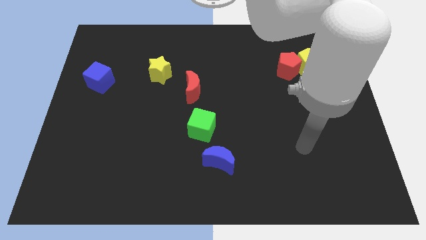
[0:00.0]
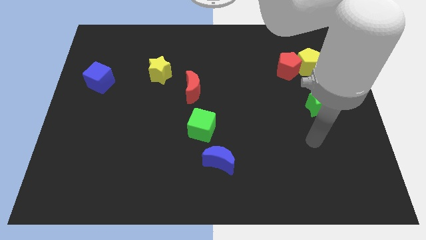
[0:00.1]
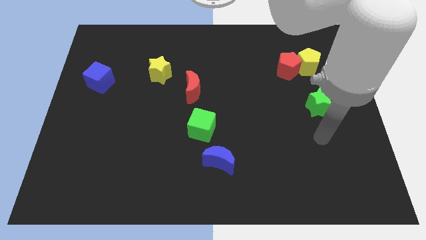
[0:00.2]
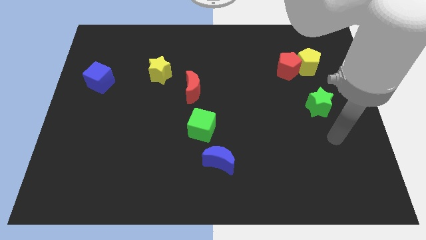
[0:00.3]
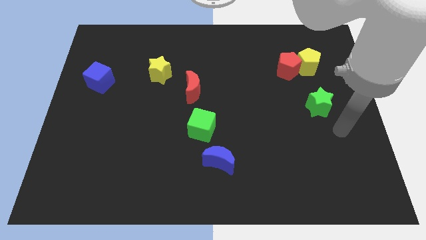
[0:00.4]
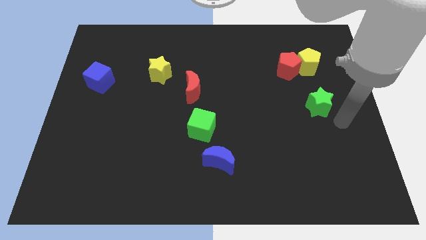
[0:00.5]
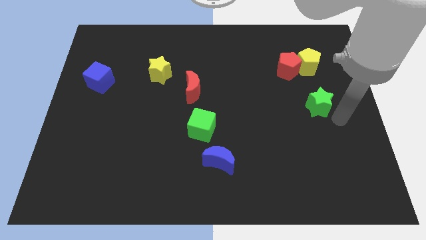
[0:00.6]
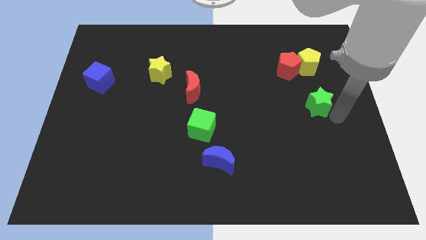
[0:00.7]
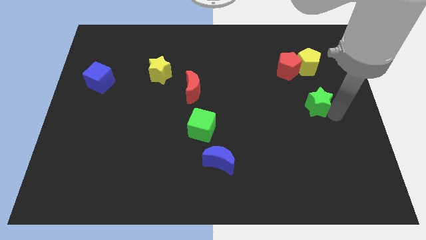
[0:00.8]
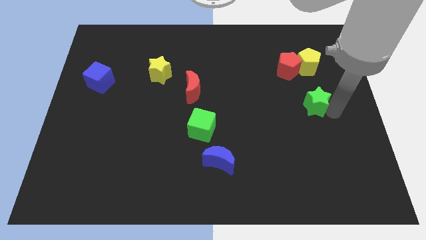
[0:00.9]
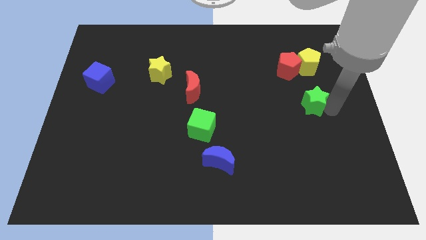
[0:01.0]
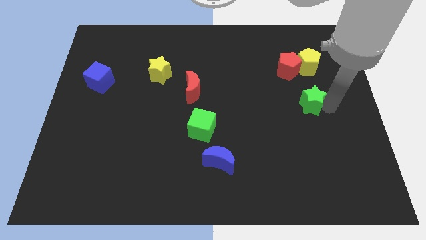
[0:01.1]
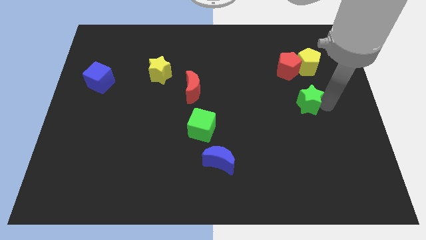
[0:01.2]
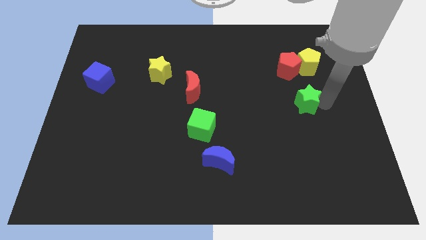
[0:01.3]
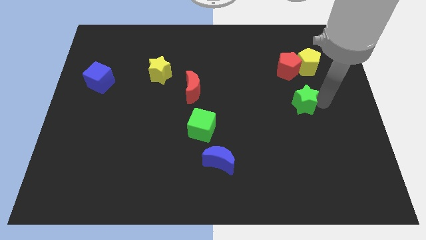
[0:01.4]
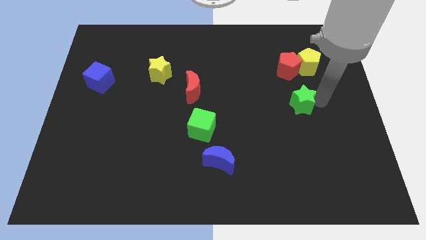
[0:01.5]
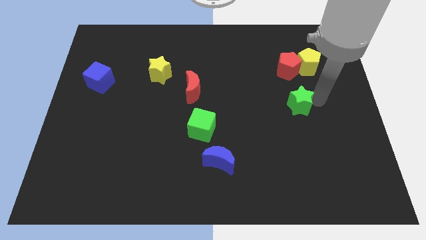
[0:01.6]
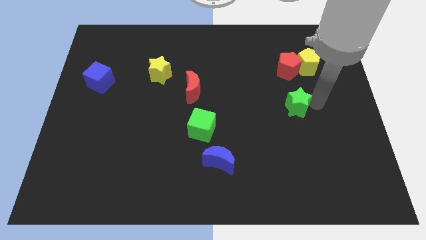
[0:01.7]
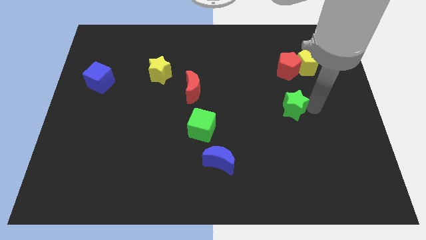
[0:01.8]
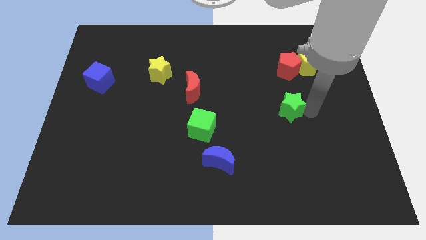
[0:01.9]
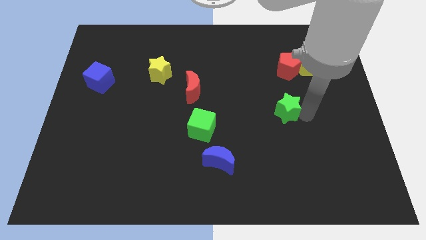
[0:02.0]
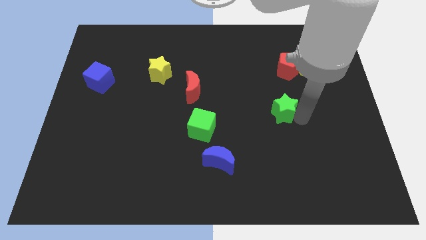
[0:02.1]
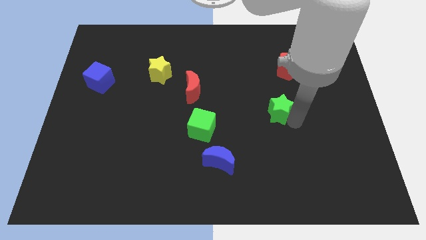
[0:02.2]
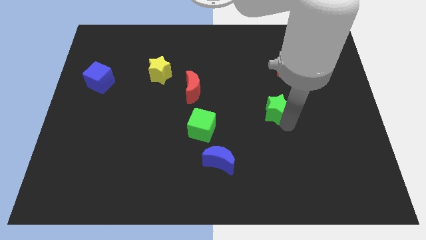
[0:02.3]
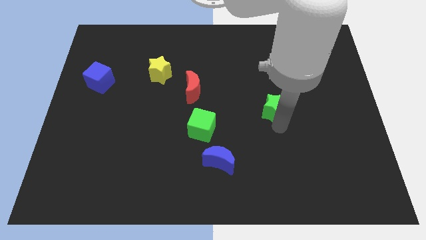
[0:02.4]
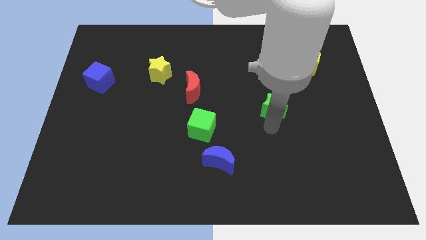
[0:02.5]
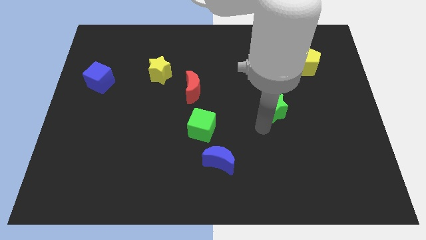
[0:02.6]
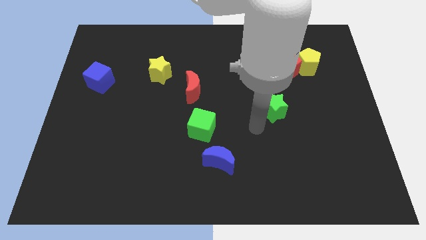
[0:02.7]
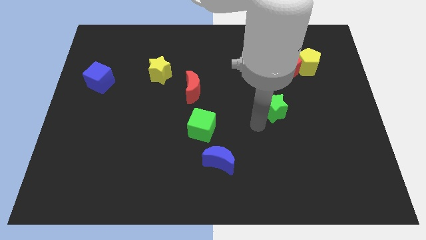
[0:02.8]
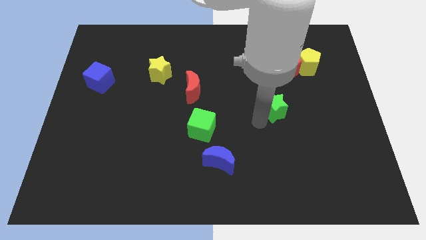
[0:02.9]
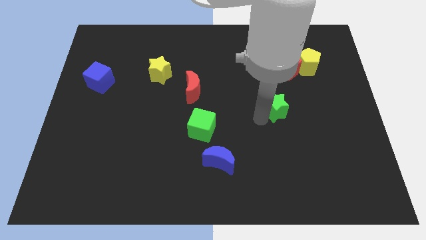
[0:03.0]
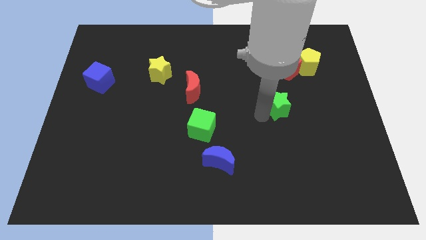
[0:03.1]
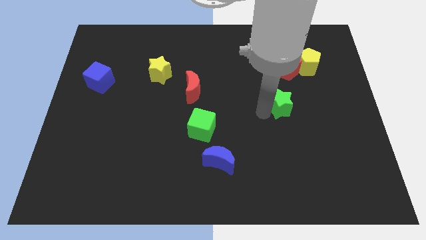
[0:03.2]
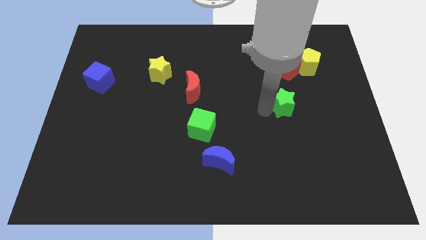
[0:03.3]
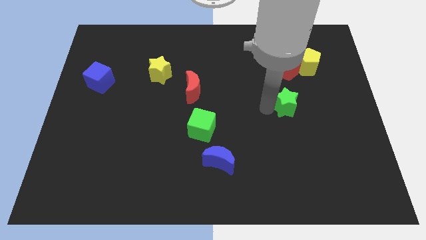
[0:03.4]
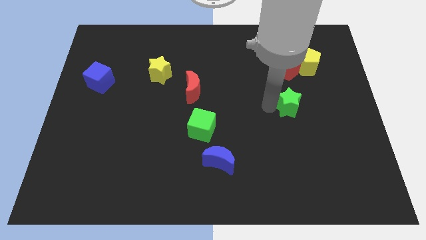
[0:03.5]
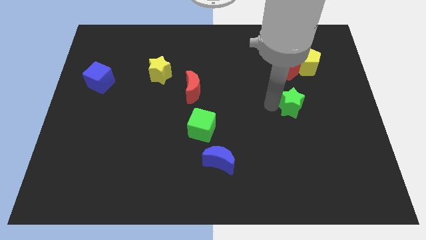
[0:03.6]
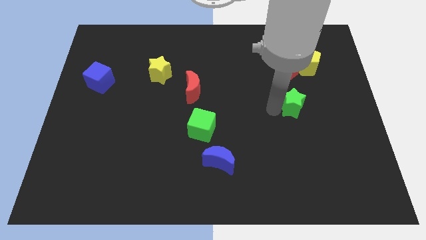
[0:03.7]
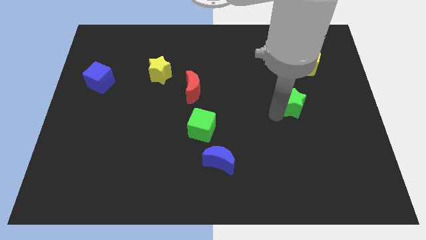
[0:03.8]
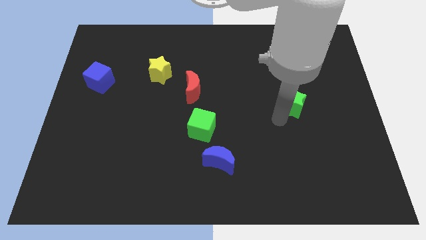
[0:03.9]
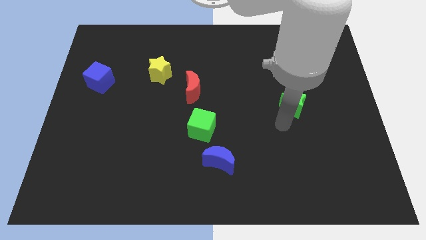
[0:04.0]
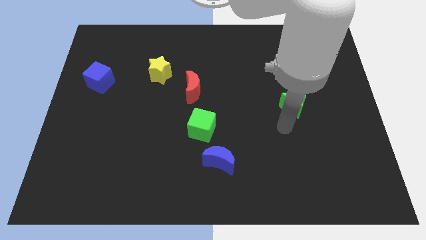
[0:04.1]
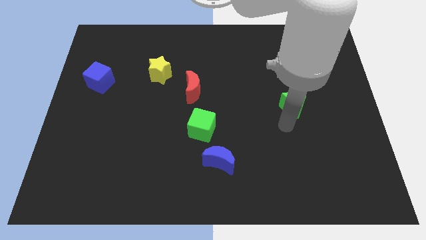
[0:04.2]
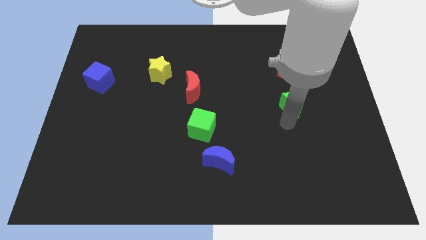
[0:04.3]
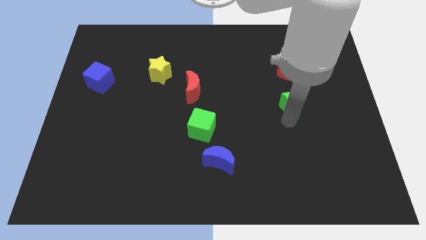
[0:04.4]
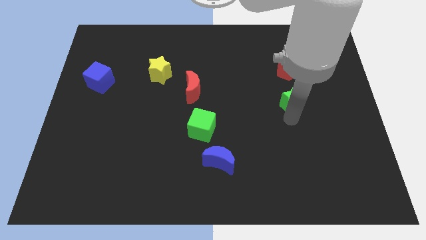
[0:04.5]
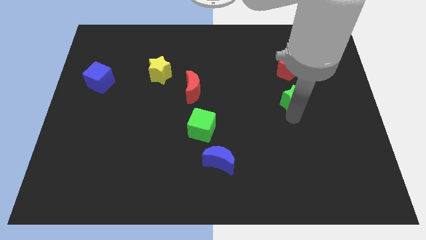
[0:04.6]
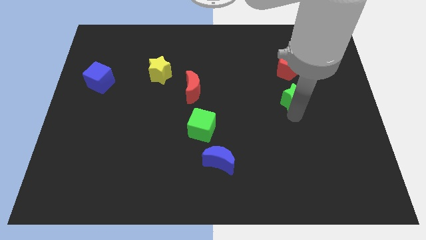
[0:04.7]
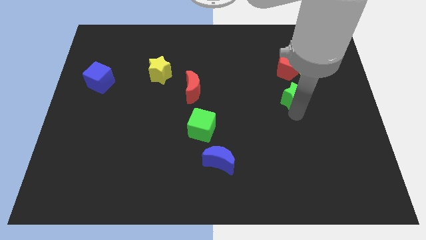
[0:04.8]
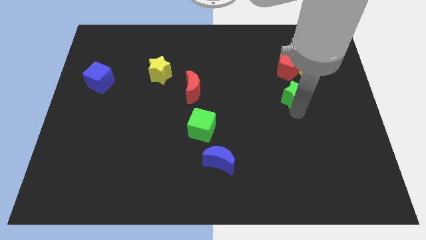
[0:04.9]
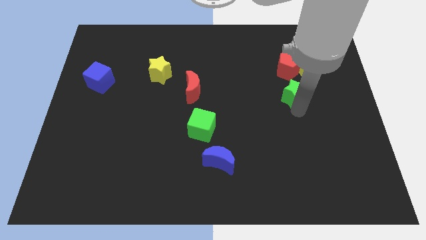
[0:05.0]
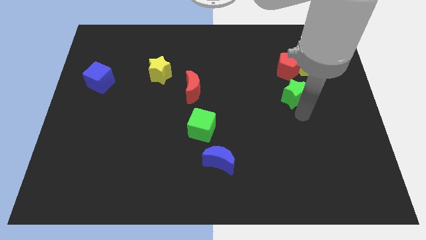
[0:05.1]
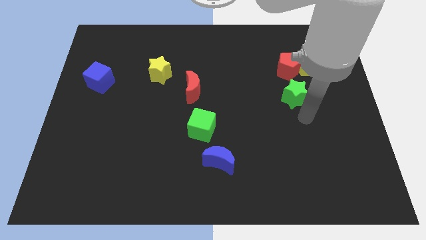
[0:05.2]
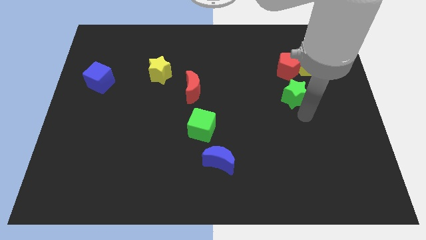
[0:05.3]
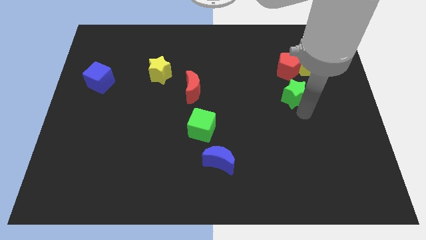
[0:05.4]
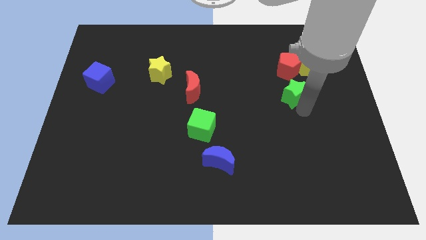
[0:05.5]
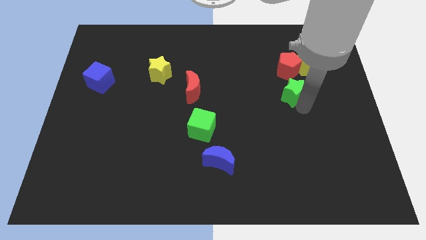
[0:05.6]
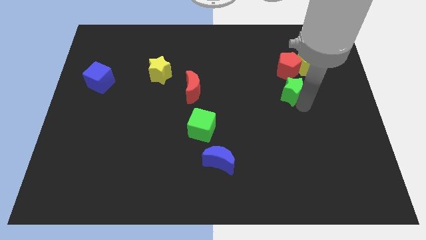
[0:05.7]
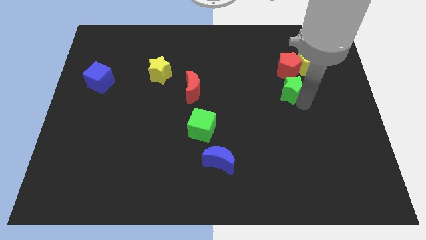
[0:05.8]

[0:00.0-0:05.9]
move the green star slightly upwards and then to the left

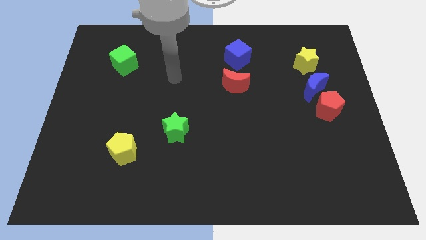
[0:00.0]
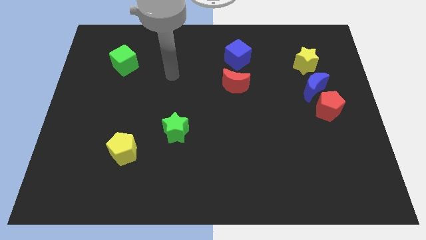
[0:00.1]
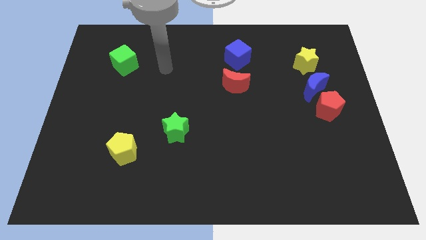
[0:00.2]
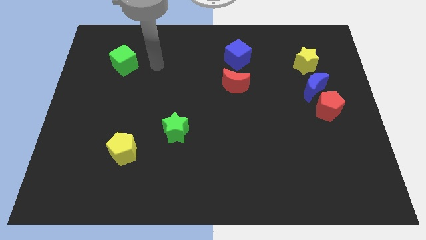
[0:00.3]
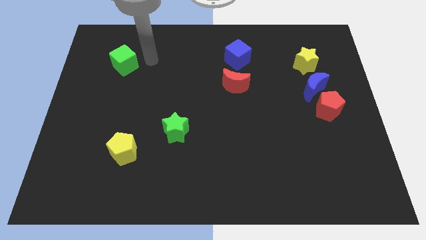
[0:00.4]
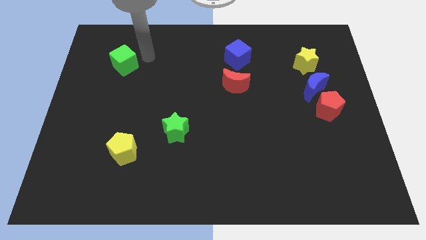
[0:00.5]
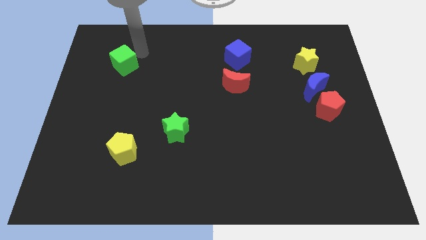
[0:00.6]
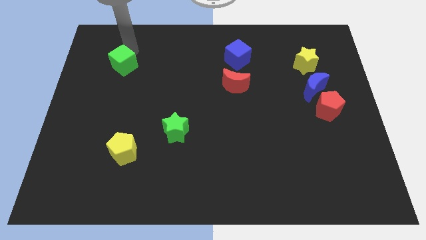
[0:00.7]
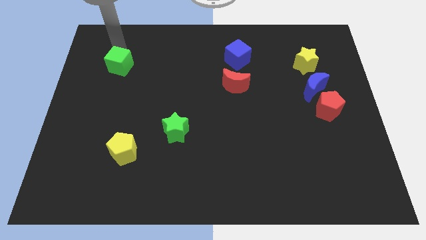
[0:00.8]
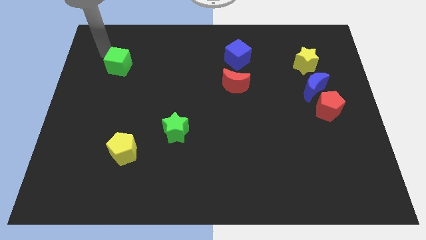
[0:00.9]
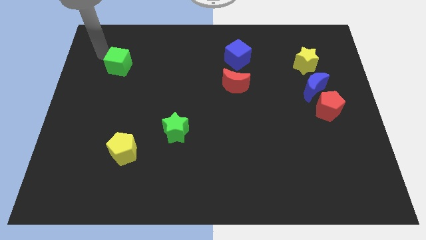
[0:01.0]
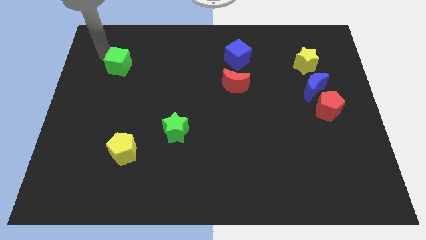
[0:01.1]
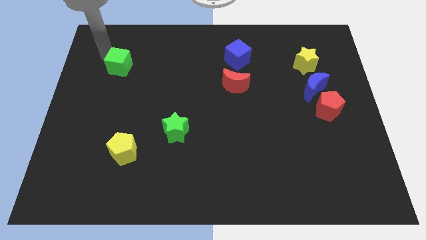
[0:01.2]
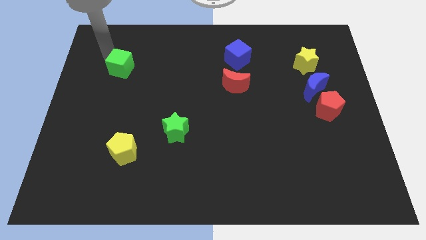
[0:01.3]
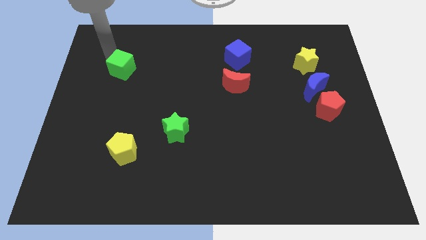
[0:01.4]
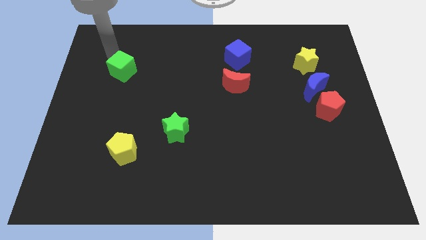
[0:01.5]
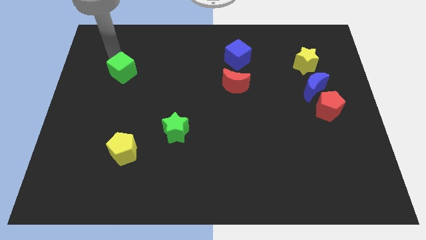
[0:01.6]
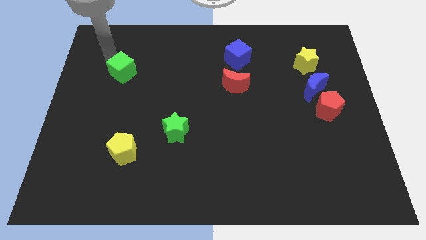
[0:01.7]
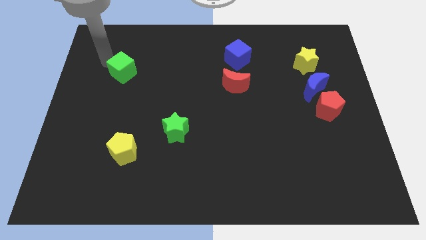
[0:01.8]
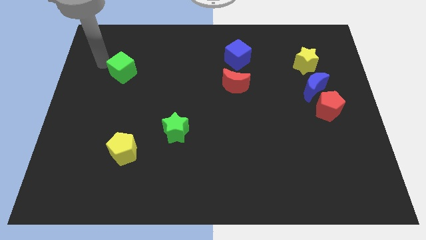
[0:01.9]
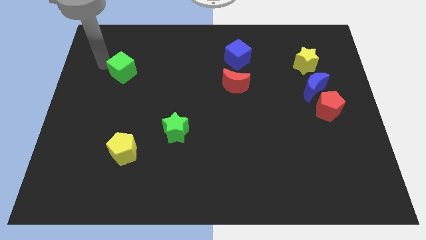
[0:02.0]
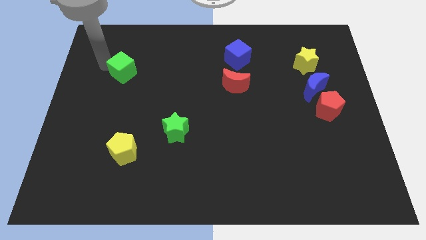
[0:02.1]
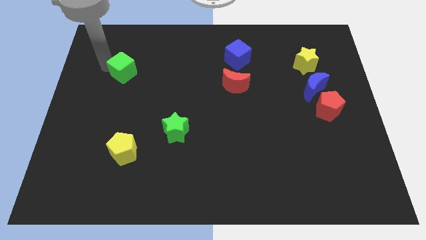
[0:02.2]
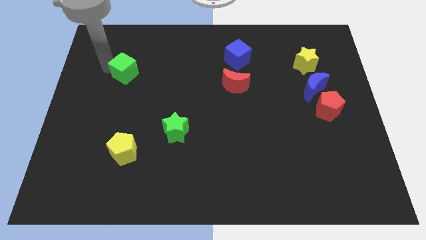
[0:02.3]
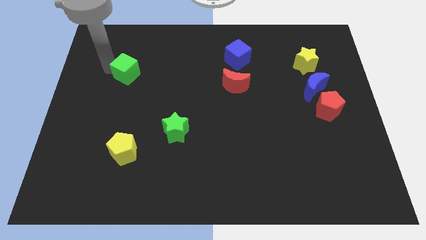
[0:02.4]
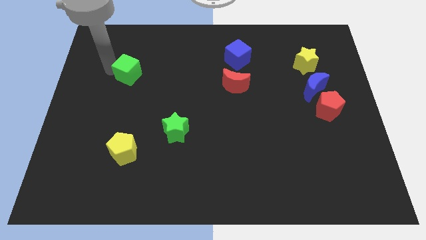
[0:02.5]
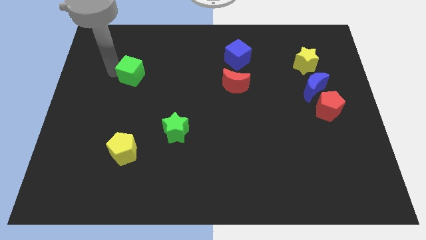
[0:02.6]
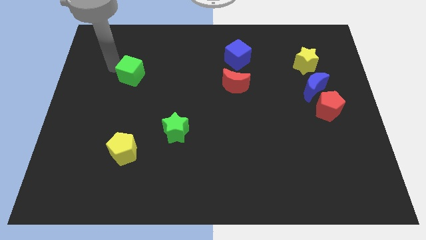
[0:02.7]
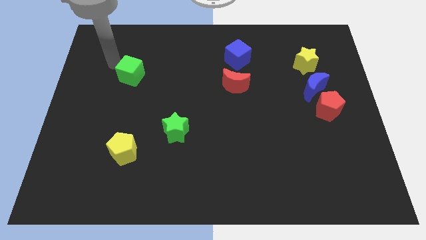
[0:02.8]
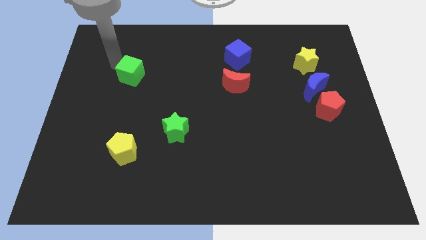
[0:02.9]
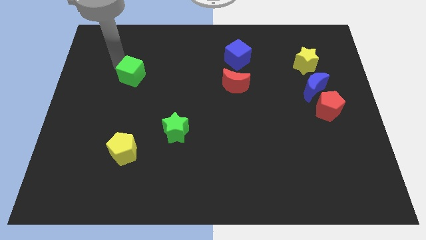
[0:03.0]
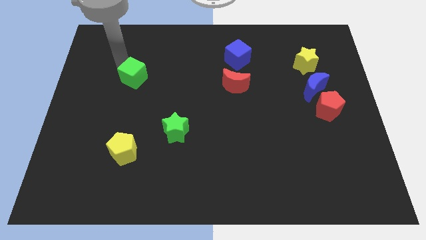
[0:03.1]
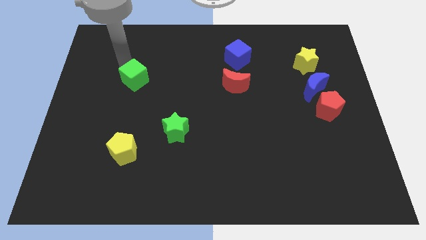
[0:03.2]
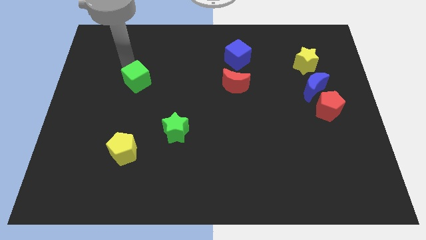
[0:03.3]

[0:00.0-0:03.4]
push the green cube downwards and to the right a little
